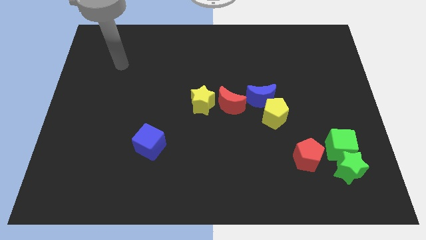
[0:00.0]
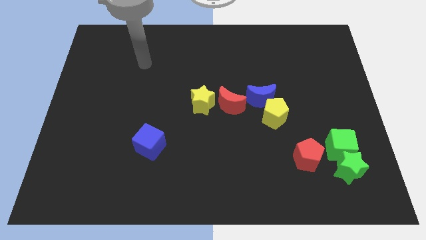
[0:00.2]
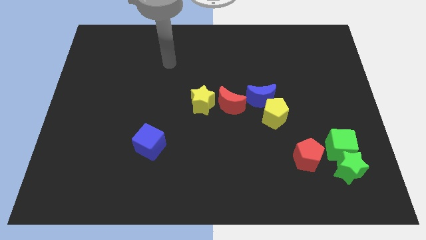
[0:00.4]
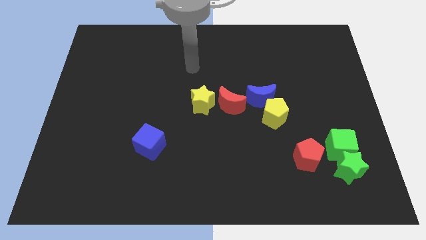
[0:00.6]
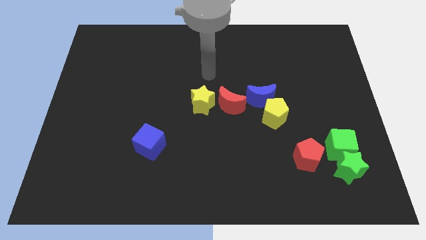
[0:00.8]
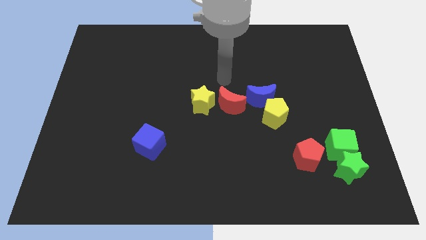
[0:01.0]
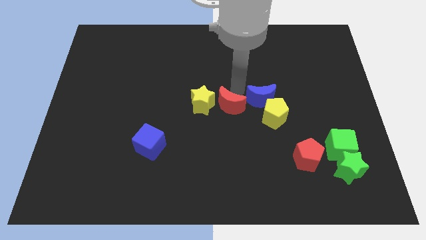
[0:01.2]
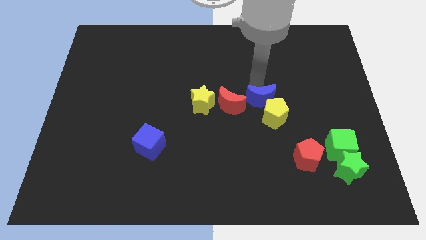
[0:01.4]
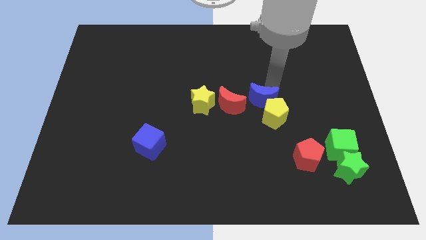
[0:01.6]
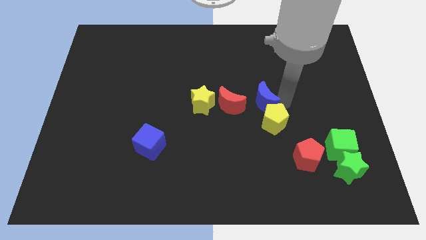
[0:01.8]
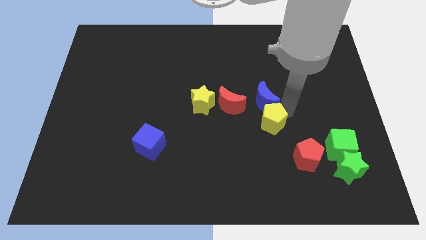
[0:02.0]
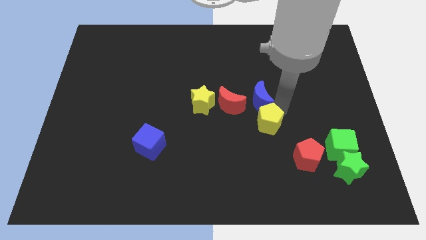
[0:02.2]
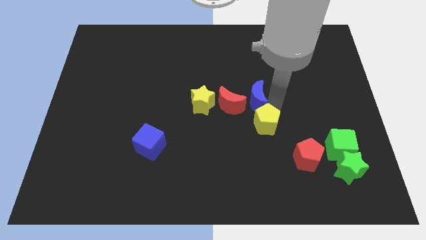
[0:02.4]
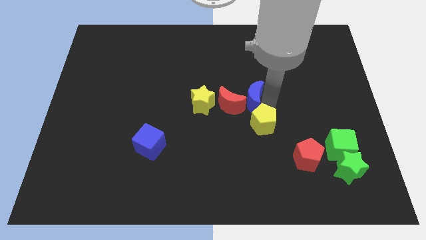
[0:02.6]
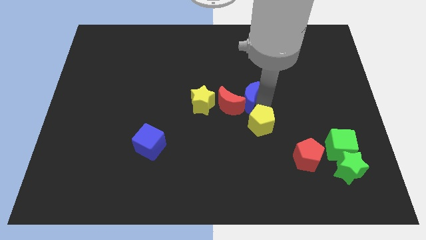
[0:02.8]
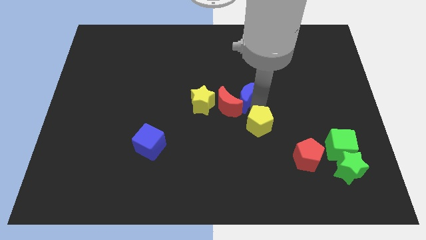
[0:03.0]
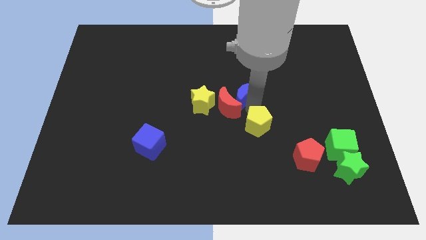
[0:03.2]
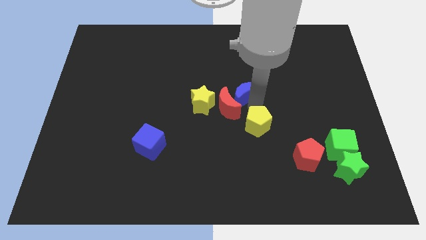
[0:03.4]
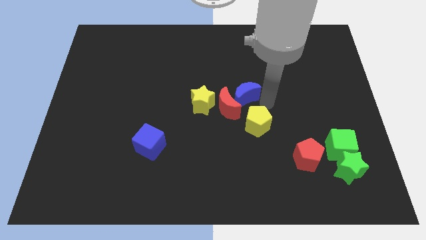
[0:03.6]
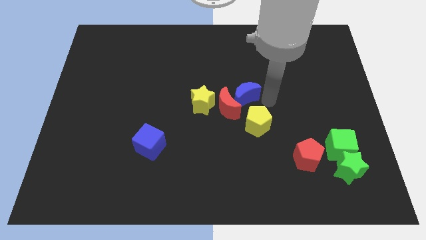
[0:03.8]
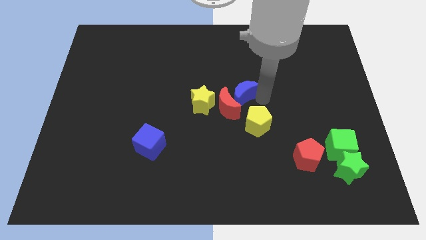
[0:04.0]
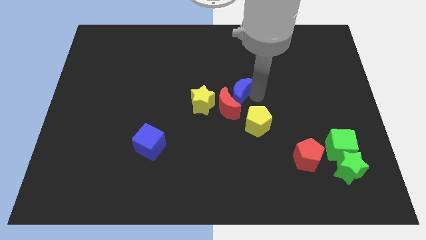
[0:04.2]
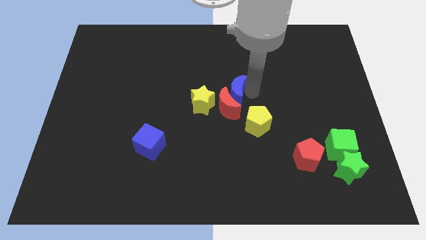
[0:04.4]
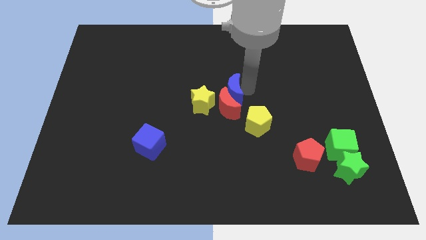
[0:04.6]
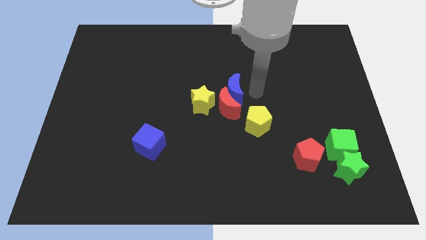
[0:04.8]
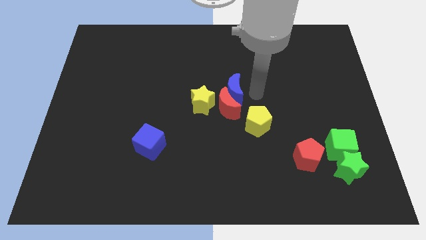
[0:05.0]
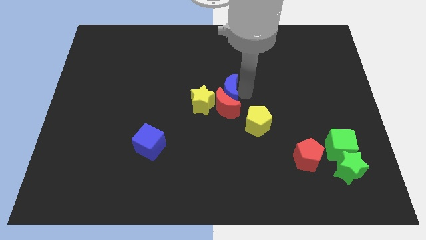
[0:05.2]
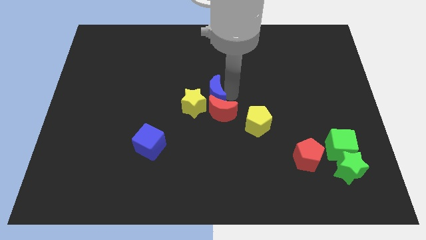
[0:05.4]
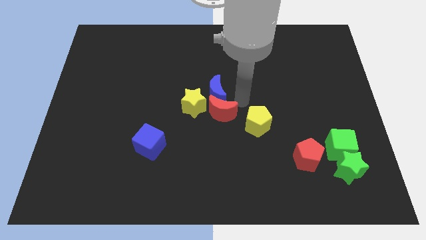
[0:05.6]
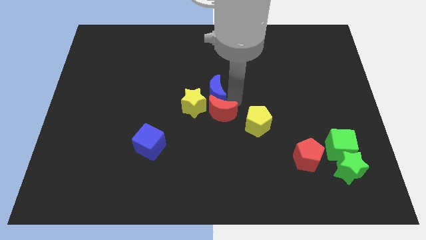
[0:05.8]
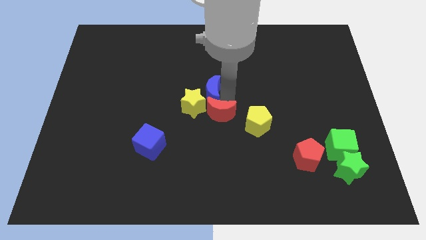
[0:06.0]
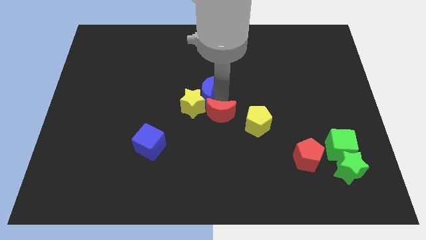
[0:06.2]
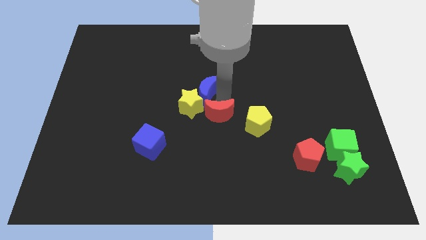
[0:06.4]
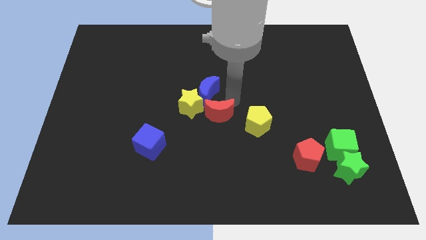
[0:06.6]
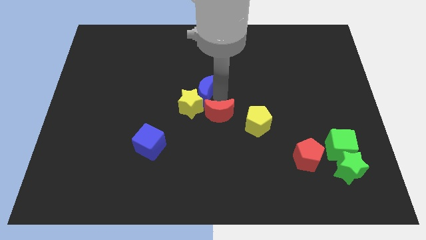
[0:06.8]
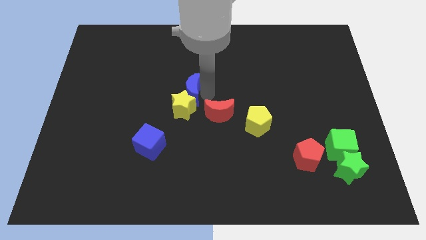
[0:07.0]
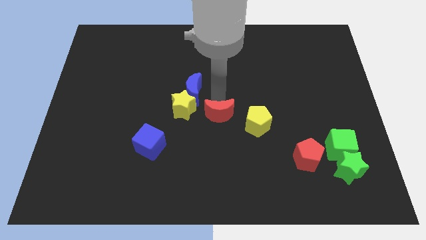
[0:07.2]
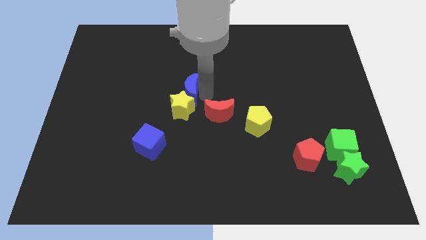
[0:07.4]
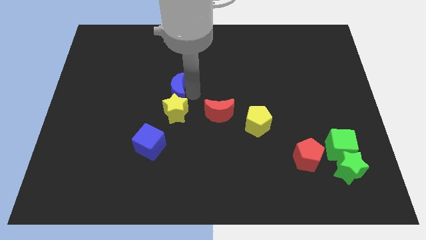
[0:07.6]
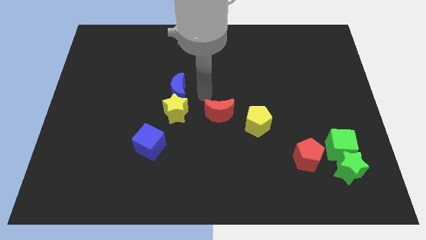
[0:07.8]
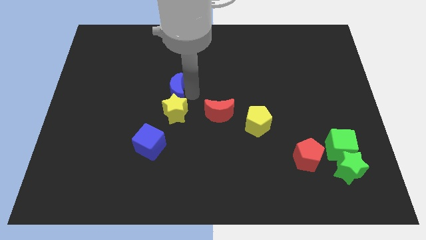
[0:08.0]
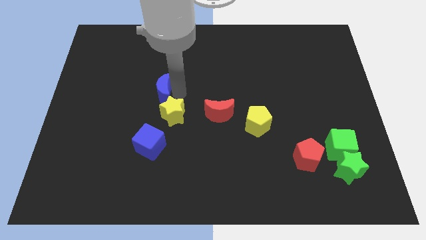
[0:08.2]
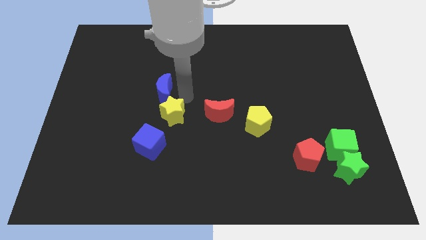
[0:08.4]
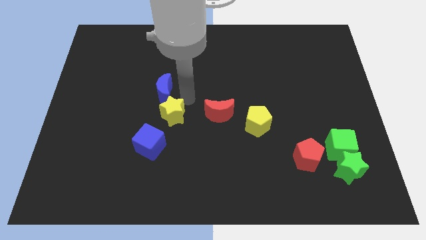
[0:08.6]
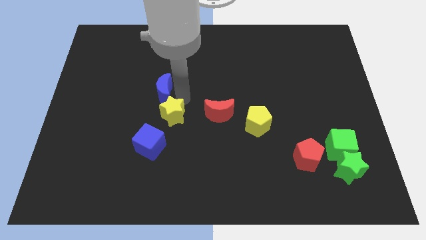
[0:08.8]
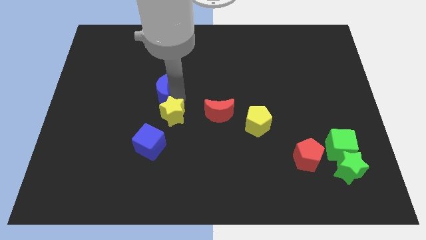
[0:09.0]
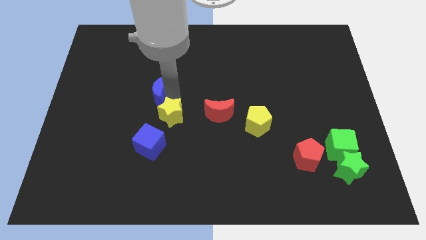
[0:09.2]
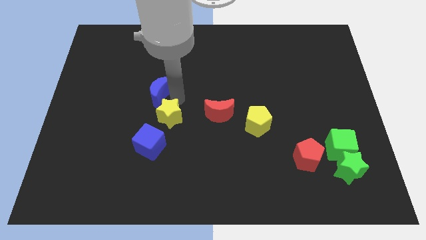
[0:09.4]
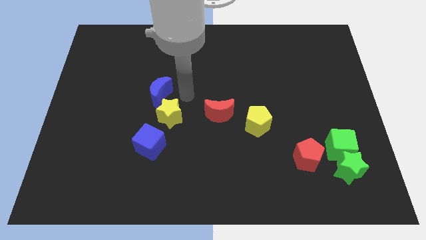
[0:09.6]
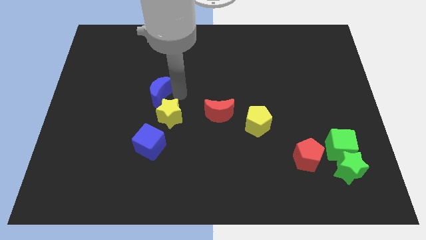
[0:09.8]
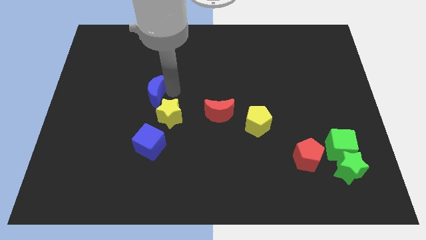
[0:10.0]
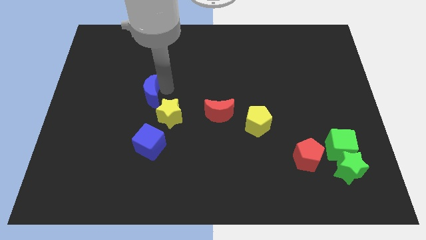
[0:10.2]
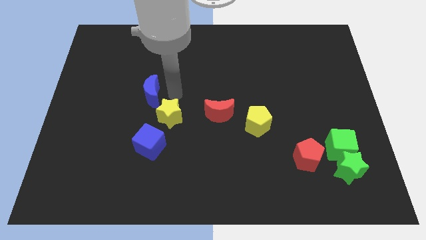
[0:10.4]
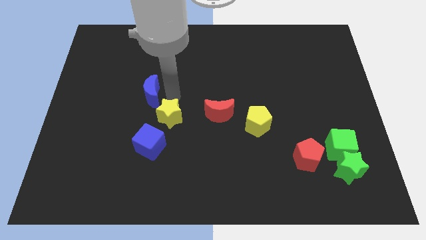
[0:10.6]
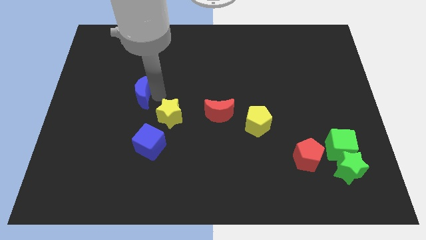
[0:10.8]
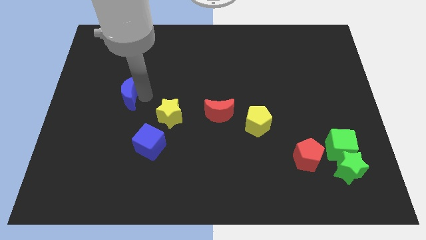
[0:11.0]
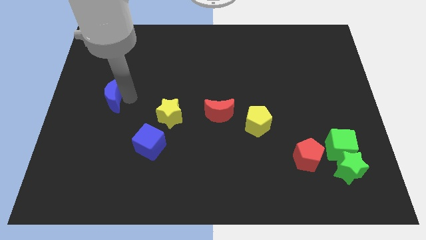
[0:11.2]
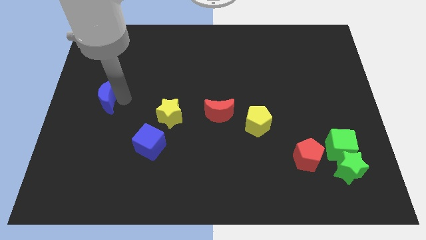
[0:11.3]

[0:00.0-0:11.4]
put the blue moon to the center left
